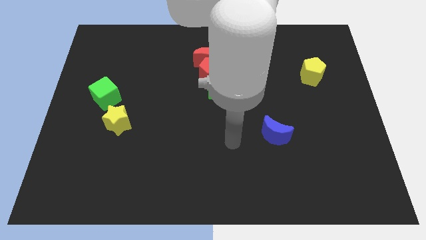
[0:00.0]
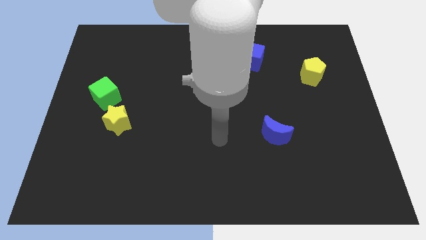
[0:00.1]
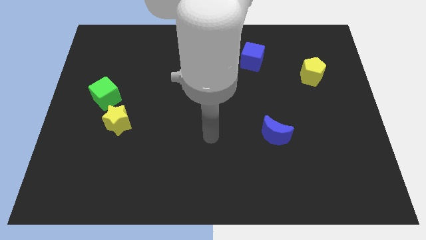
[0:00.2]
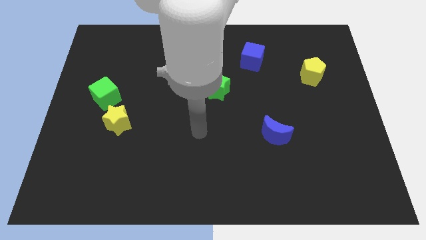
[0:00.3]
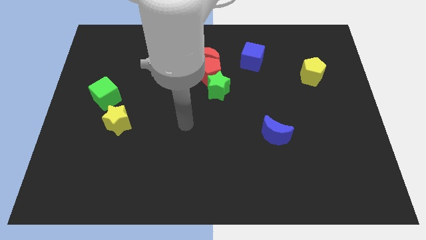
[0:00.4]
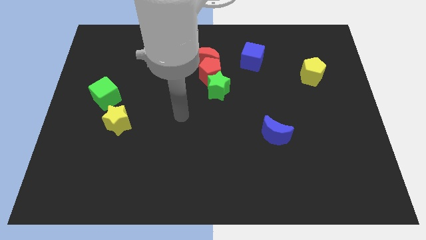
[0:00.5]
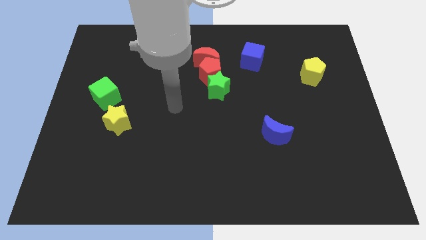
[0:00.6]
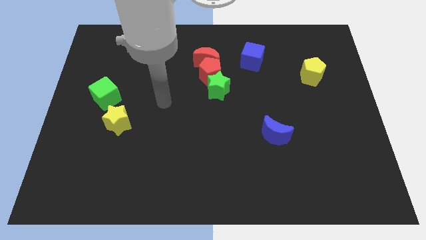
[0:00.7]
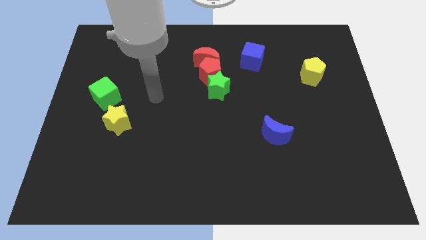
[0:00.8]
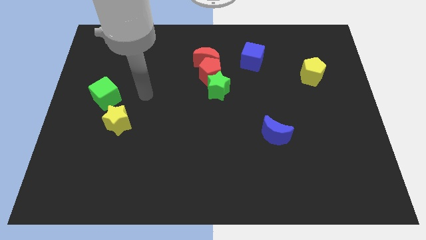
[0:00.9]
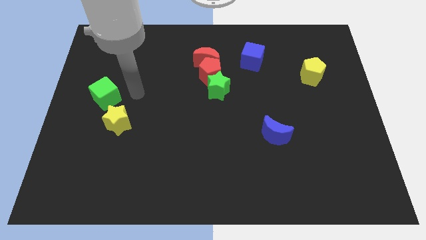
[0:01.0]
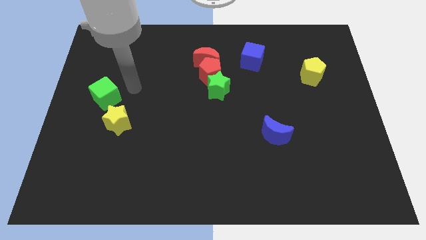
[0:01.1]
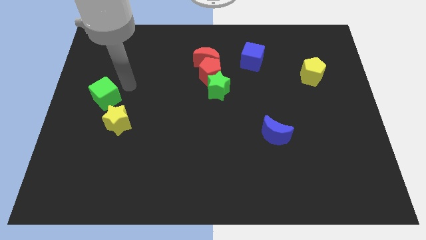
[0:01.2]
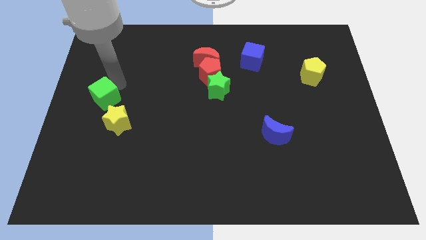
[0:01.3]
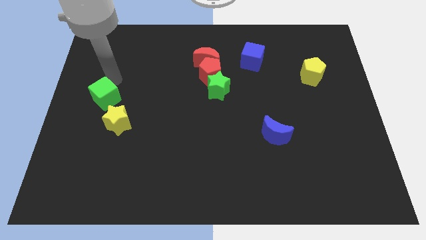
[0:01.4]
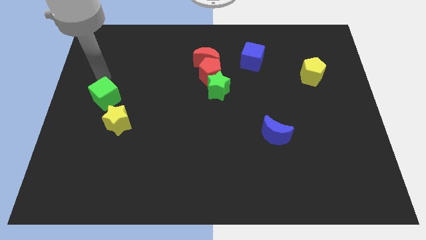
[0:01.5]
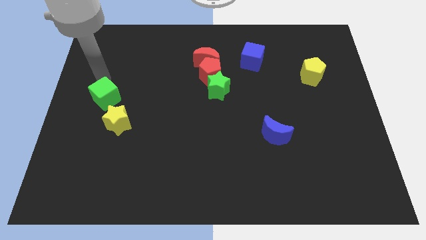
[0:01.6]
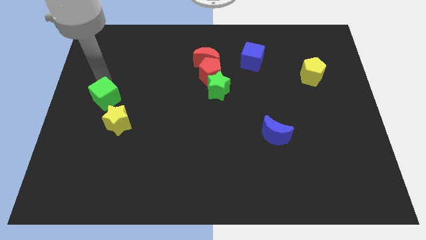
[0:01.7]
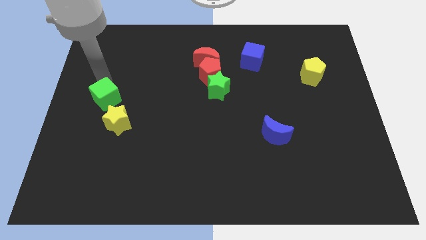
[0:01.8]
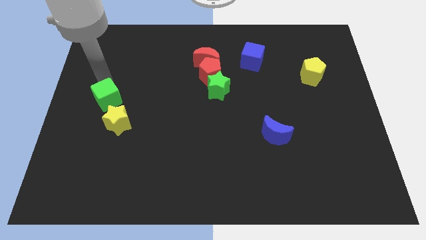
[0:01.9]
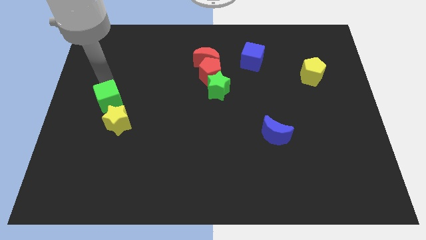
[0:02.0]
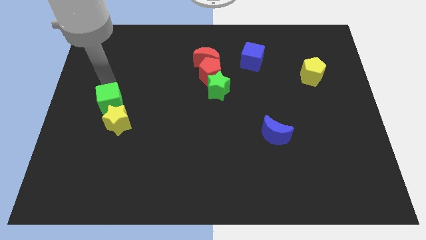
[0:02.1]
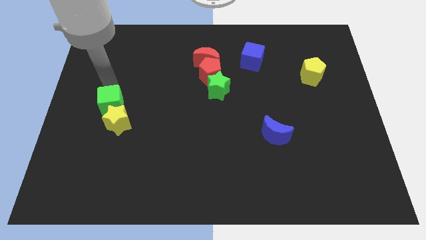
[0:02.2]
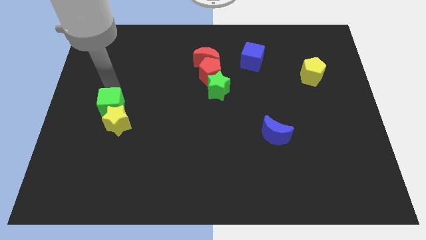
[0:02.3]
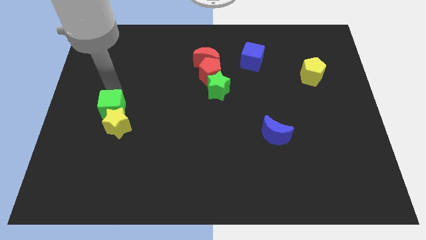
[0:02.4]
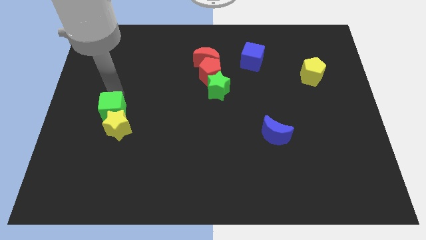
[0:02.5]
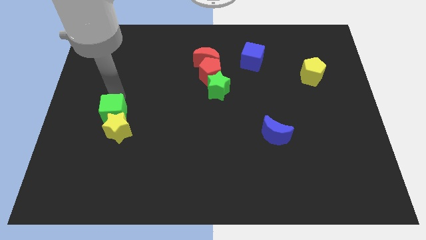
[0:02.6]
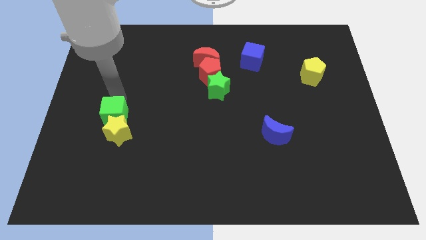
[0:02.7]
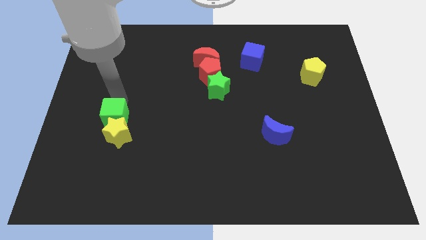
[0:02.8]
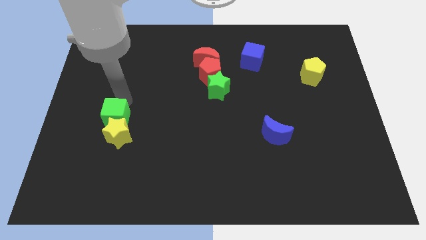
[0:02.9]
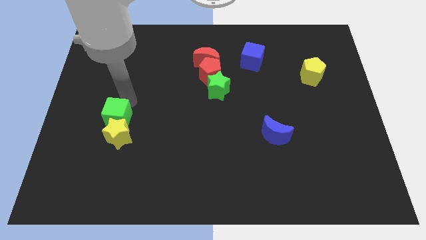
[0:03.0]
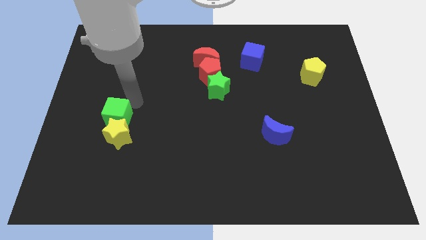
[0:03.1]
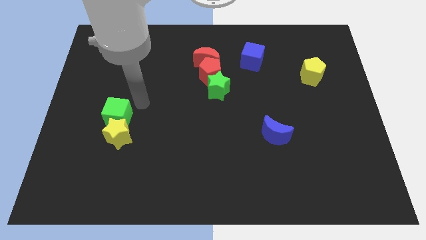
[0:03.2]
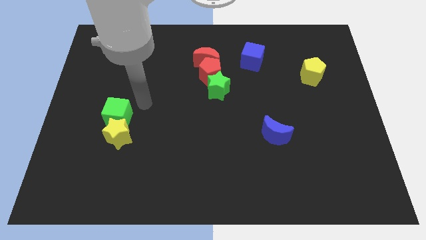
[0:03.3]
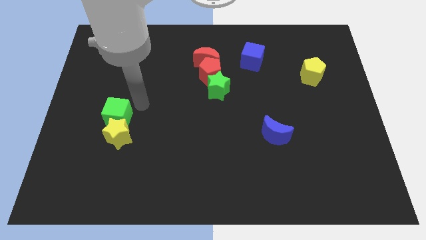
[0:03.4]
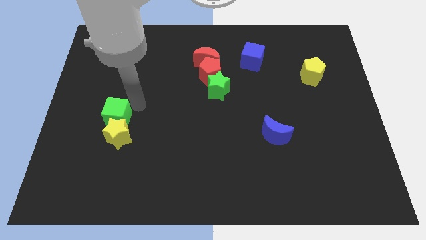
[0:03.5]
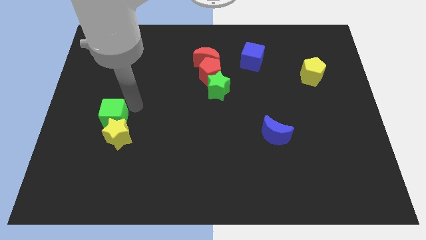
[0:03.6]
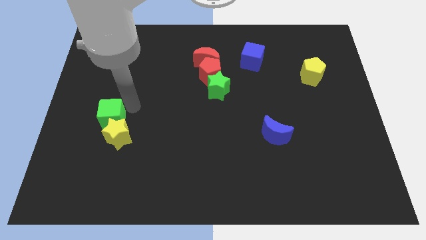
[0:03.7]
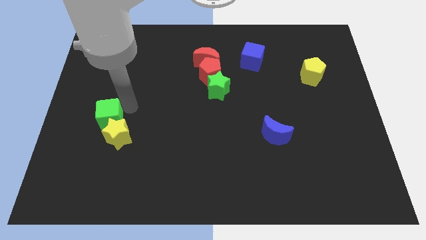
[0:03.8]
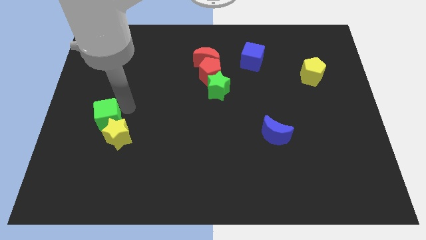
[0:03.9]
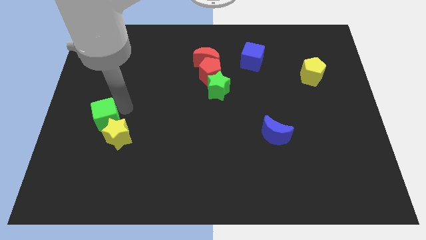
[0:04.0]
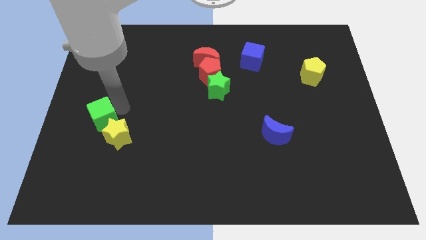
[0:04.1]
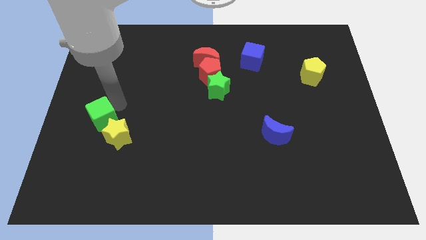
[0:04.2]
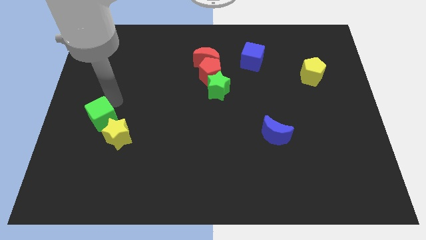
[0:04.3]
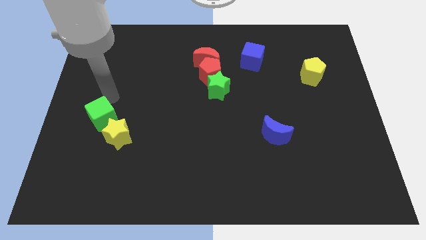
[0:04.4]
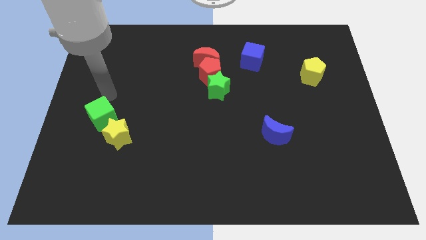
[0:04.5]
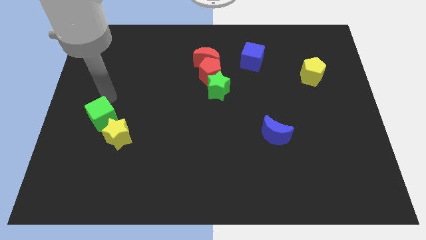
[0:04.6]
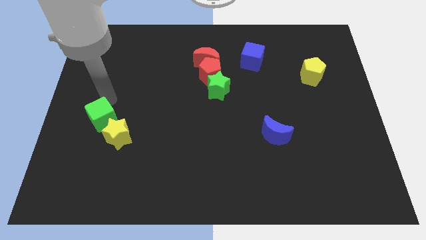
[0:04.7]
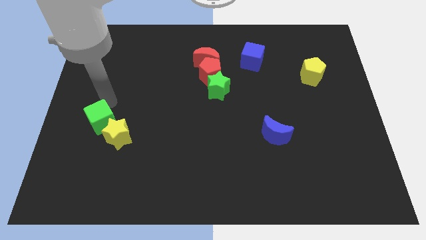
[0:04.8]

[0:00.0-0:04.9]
slide the green cube down slightly

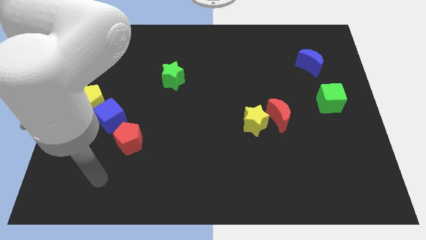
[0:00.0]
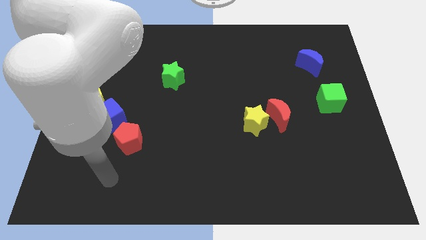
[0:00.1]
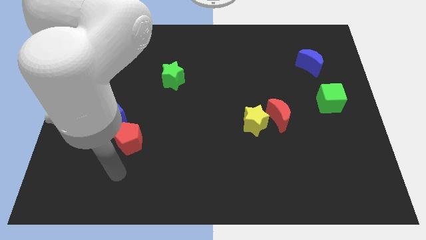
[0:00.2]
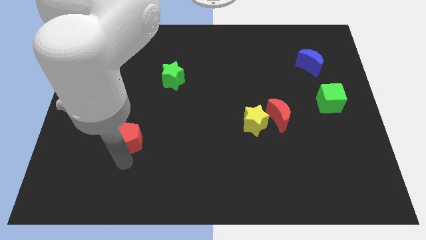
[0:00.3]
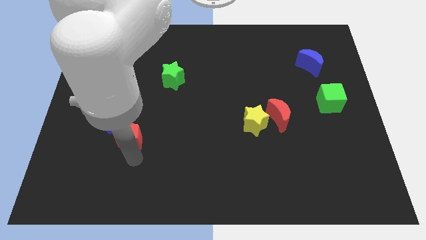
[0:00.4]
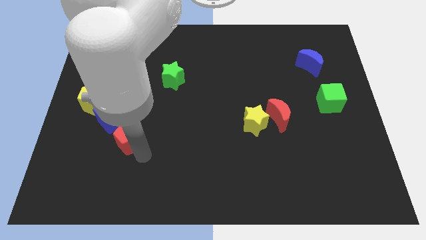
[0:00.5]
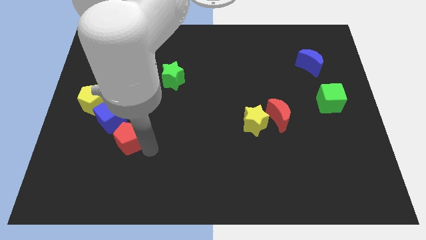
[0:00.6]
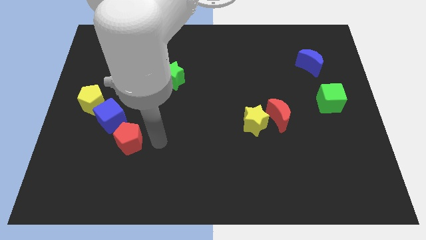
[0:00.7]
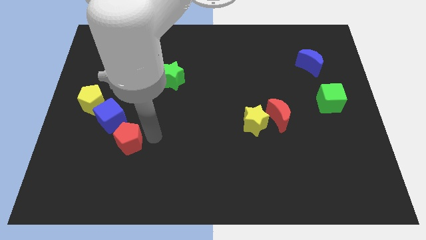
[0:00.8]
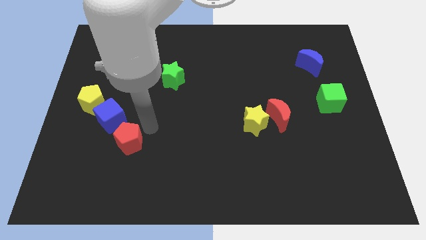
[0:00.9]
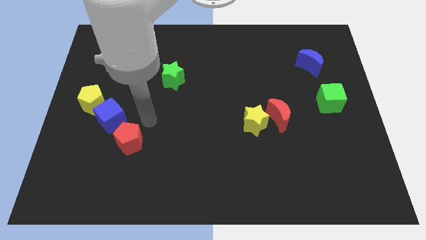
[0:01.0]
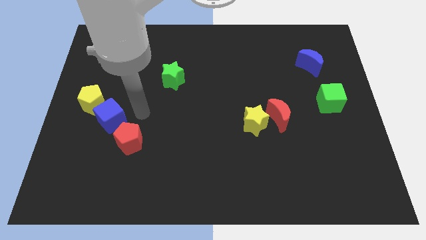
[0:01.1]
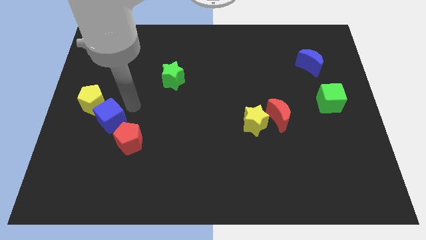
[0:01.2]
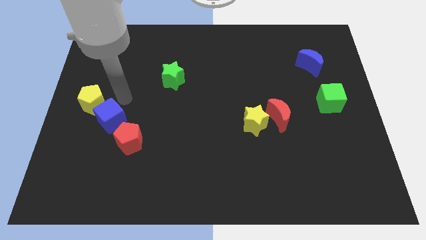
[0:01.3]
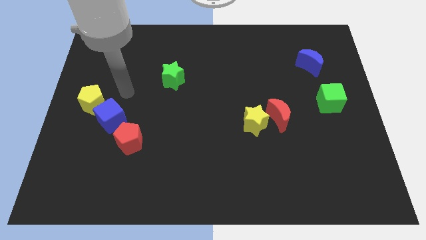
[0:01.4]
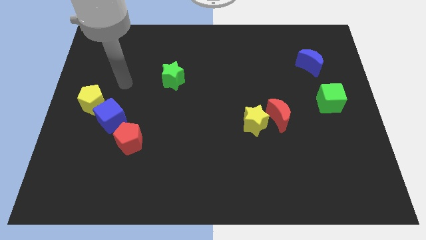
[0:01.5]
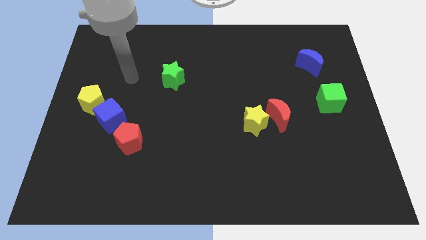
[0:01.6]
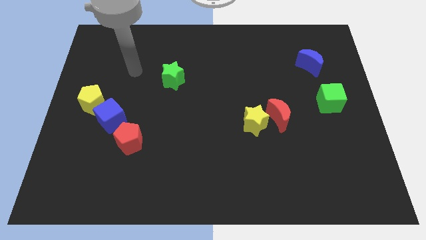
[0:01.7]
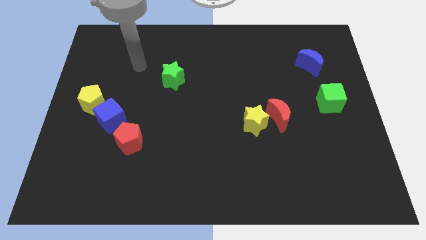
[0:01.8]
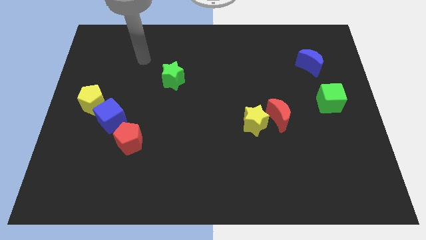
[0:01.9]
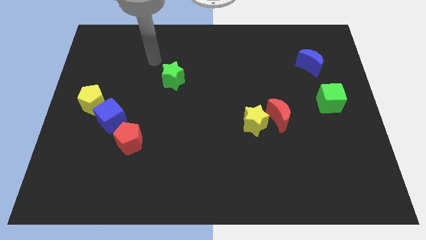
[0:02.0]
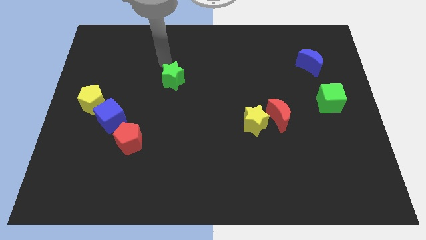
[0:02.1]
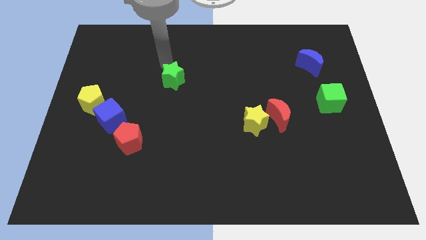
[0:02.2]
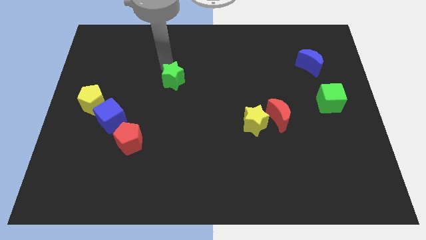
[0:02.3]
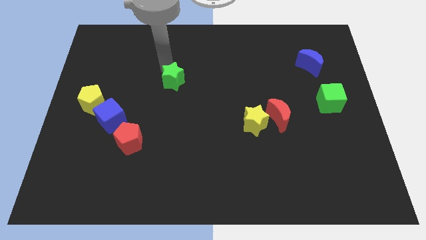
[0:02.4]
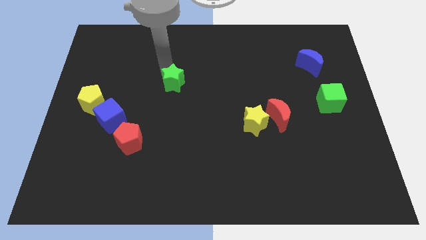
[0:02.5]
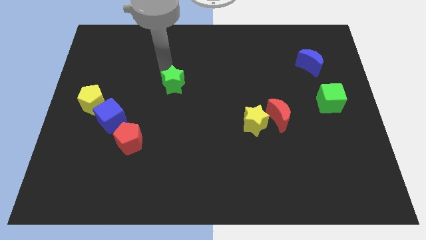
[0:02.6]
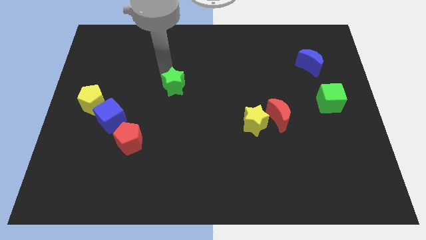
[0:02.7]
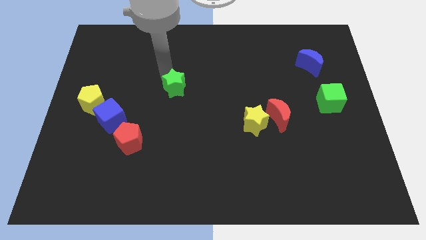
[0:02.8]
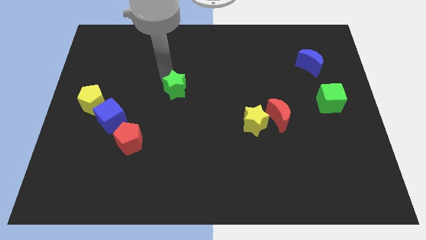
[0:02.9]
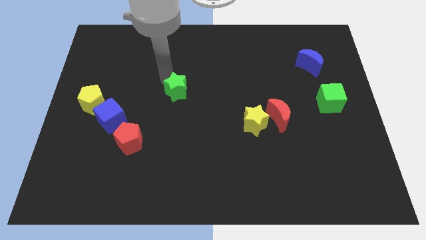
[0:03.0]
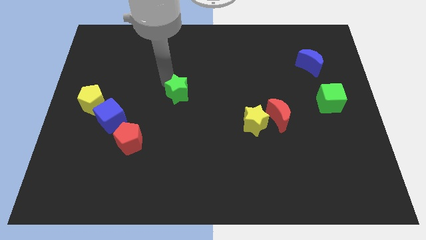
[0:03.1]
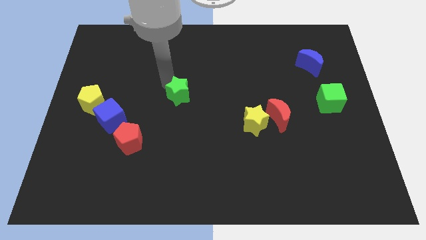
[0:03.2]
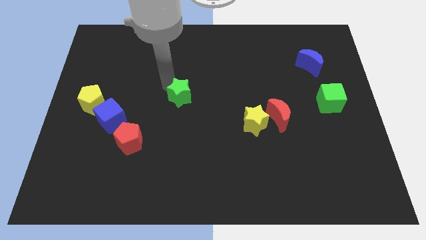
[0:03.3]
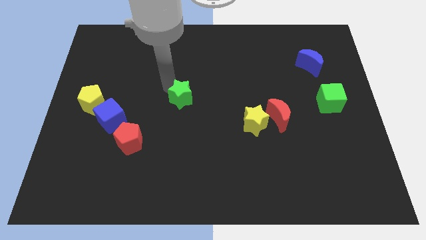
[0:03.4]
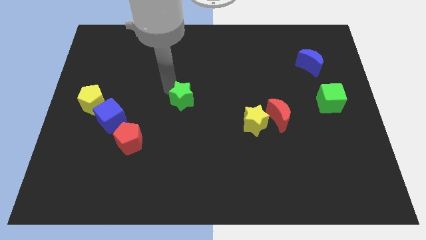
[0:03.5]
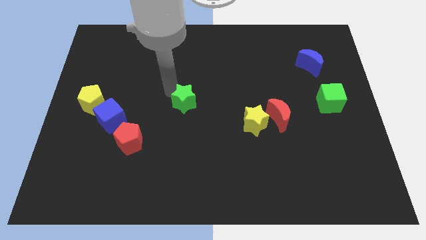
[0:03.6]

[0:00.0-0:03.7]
slightly push the green star down and then to the right
